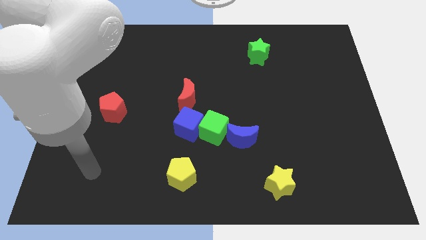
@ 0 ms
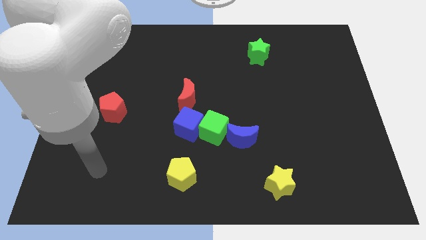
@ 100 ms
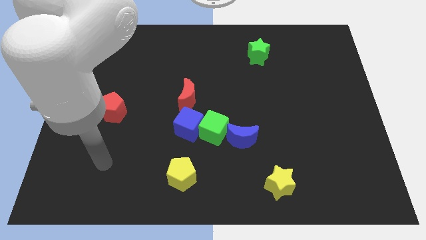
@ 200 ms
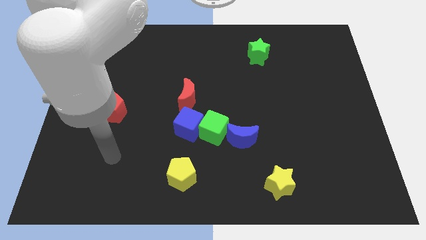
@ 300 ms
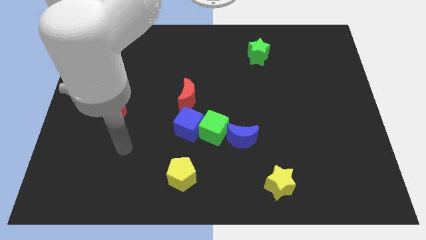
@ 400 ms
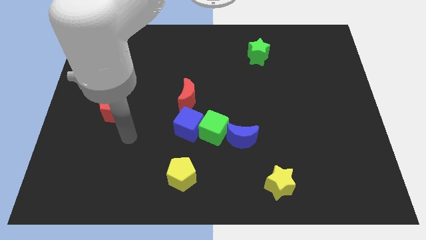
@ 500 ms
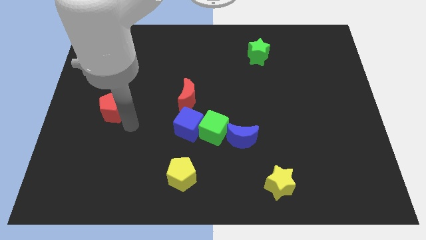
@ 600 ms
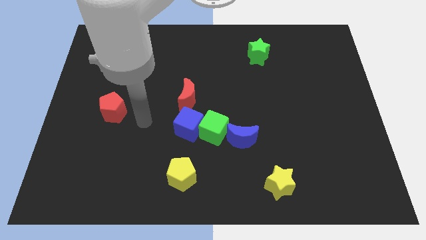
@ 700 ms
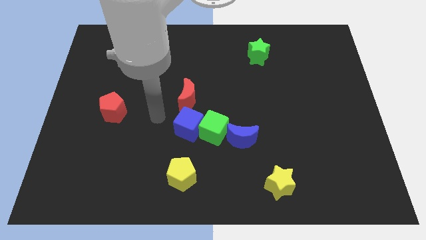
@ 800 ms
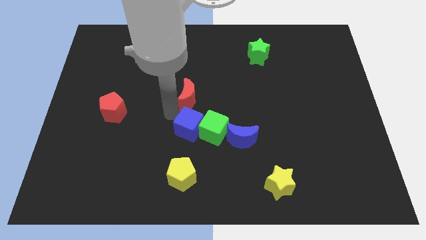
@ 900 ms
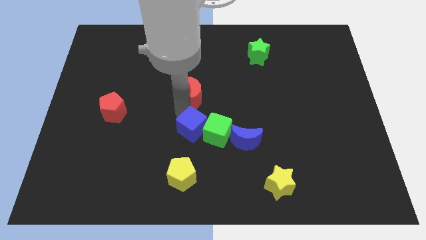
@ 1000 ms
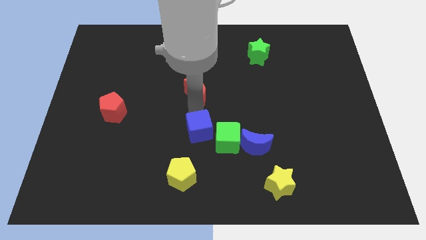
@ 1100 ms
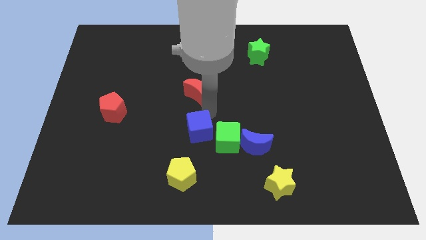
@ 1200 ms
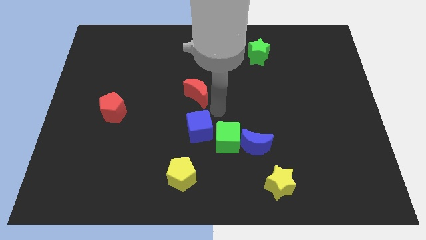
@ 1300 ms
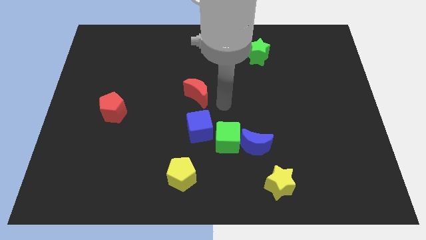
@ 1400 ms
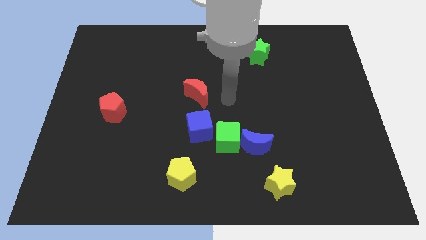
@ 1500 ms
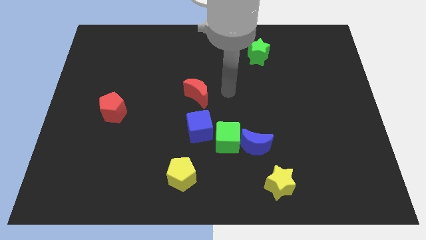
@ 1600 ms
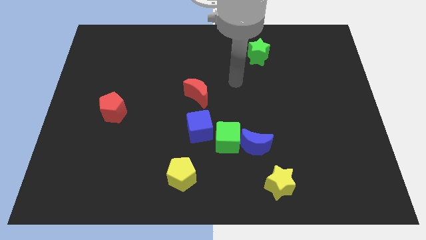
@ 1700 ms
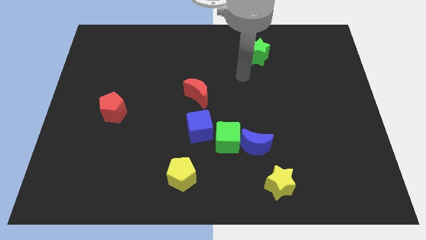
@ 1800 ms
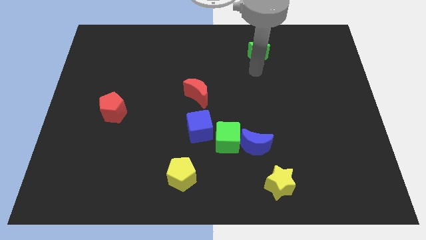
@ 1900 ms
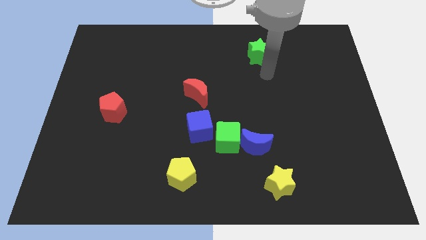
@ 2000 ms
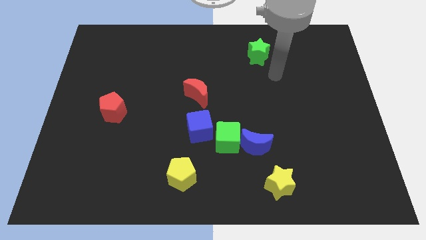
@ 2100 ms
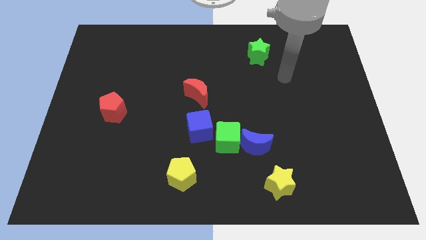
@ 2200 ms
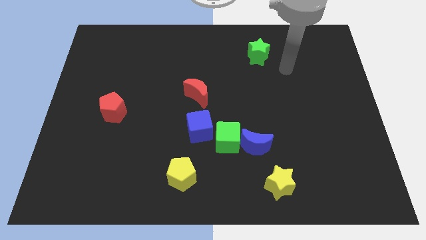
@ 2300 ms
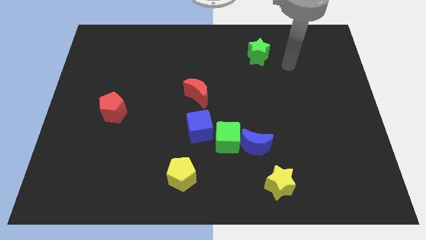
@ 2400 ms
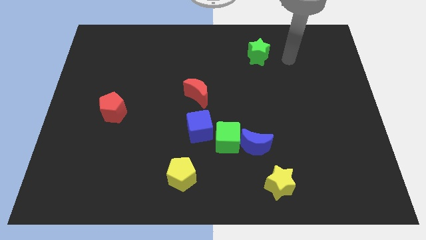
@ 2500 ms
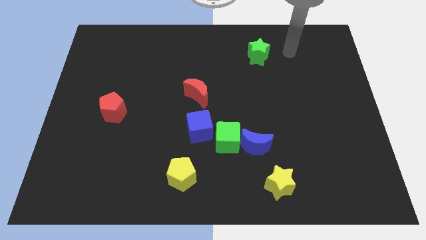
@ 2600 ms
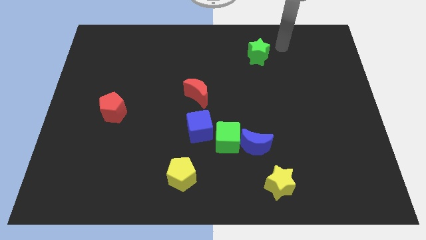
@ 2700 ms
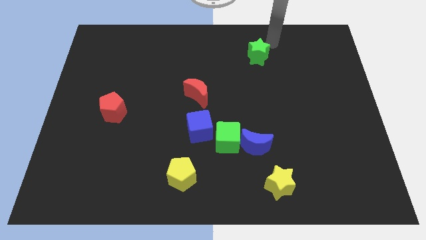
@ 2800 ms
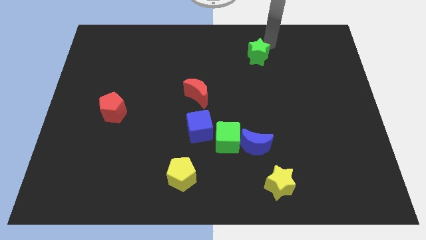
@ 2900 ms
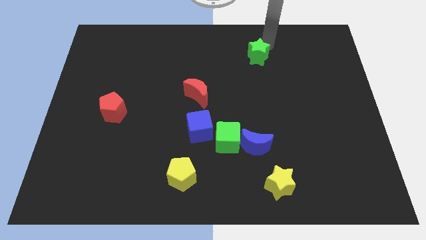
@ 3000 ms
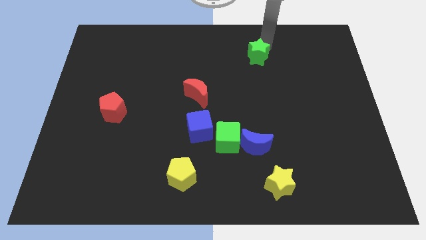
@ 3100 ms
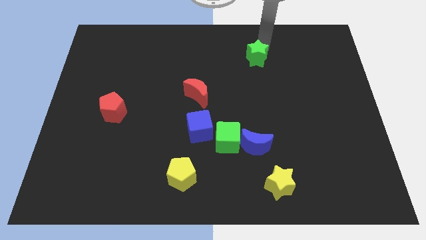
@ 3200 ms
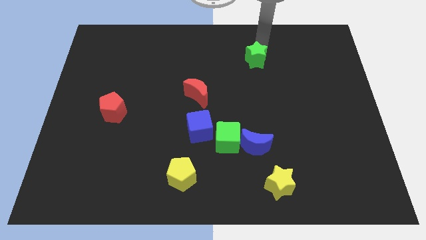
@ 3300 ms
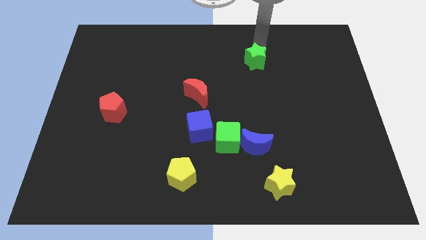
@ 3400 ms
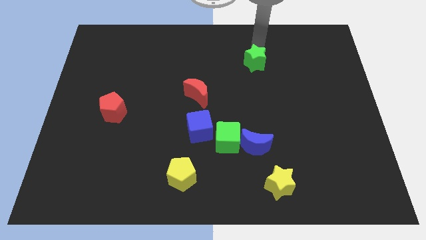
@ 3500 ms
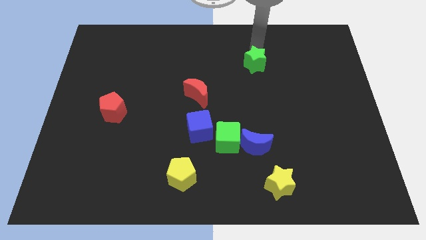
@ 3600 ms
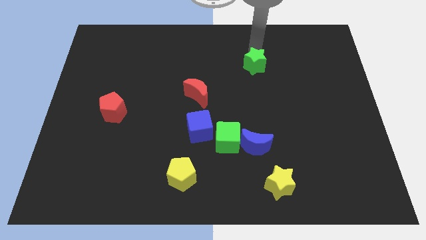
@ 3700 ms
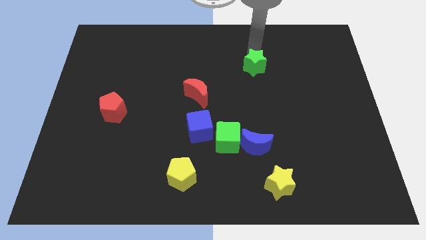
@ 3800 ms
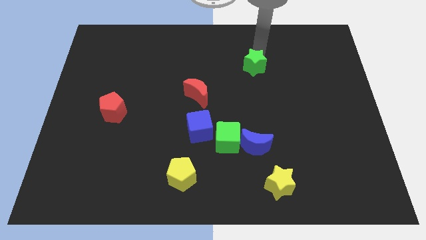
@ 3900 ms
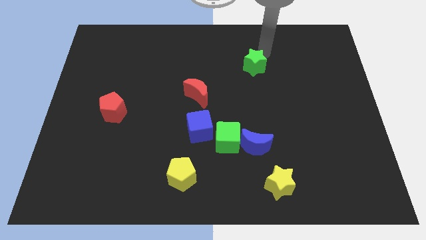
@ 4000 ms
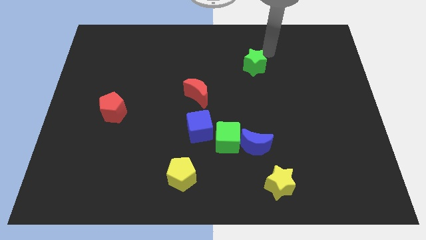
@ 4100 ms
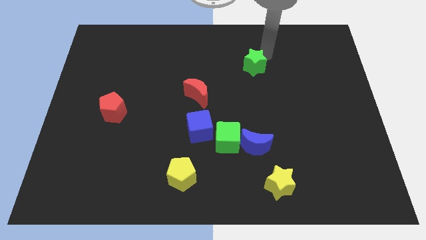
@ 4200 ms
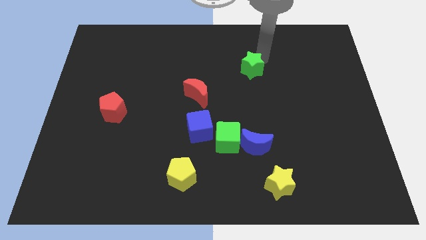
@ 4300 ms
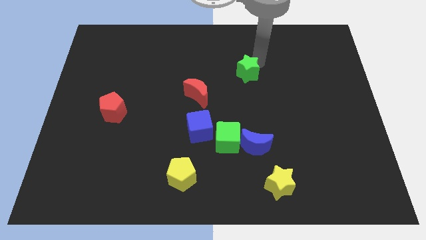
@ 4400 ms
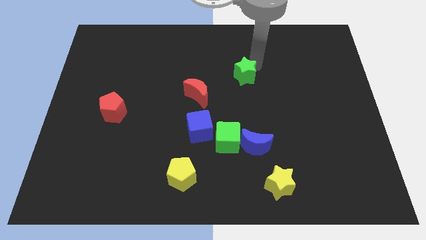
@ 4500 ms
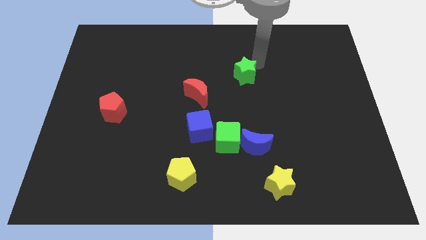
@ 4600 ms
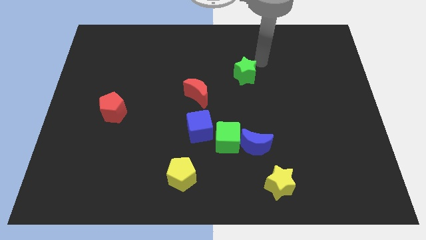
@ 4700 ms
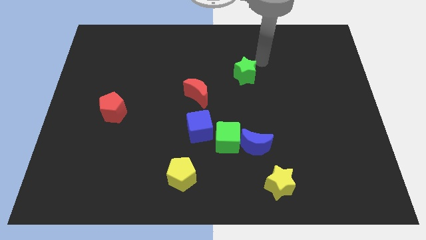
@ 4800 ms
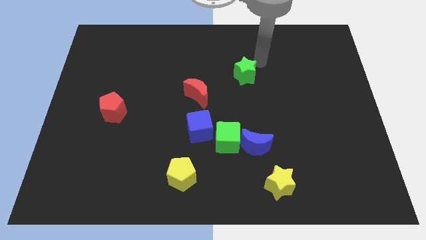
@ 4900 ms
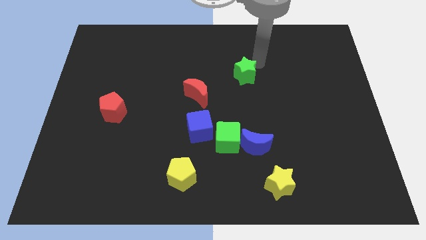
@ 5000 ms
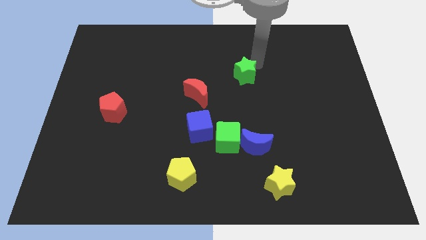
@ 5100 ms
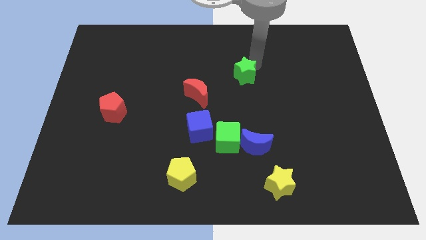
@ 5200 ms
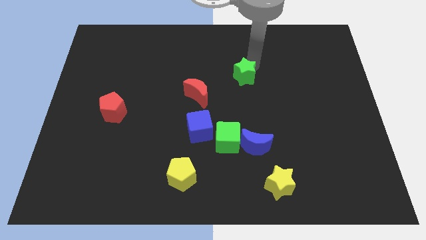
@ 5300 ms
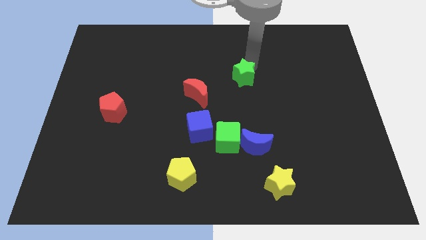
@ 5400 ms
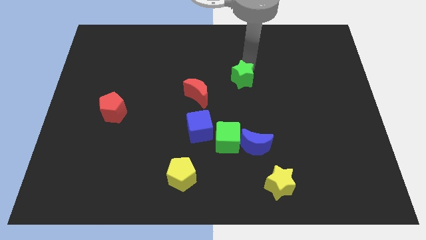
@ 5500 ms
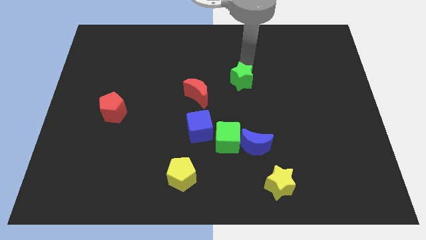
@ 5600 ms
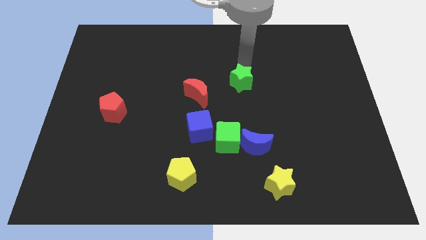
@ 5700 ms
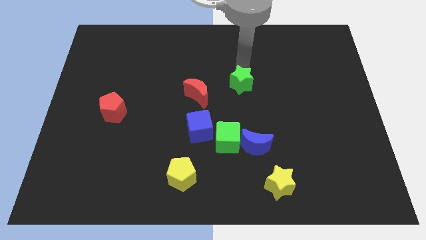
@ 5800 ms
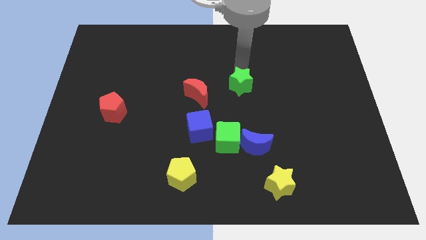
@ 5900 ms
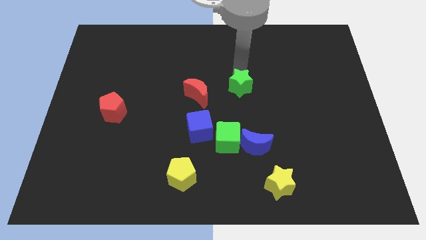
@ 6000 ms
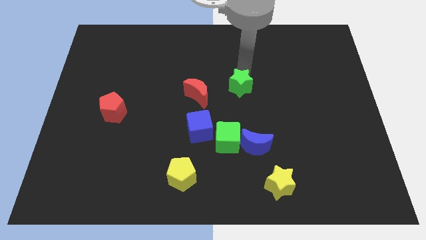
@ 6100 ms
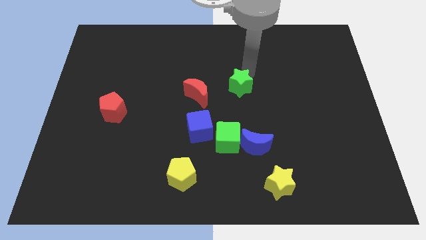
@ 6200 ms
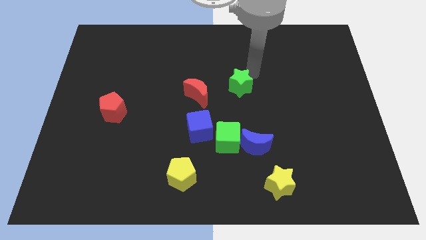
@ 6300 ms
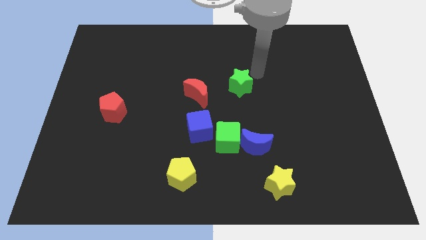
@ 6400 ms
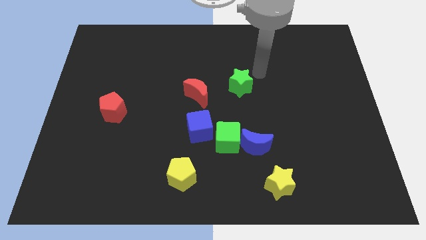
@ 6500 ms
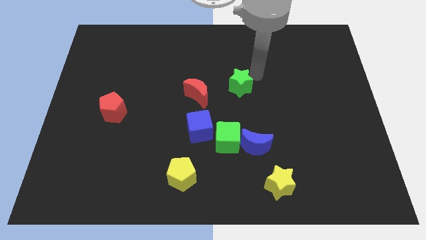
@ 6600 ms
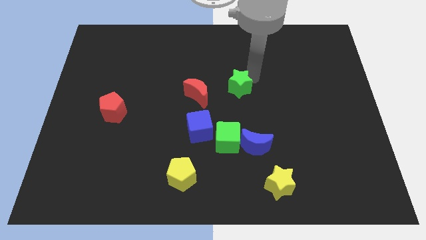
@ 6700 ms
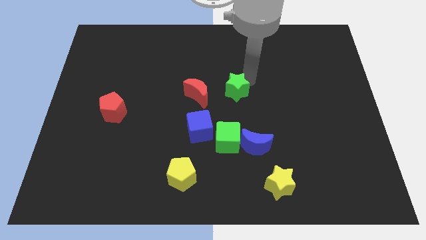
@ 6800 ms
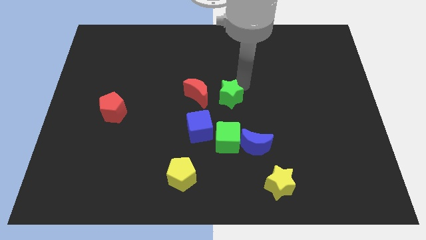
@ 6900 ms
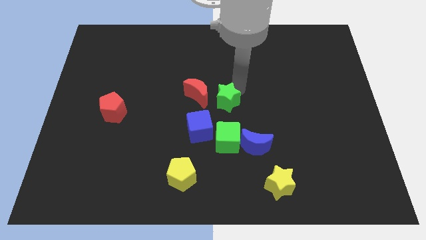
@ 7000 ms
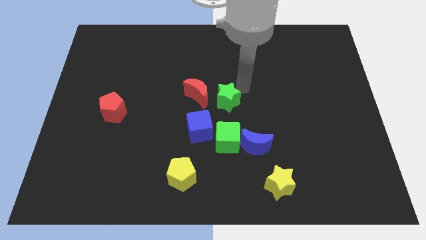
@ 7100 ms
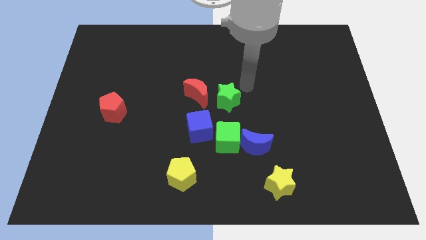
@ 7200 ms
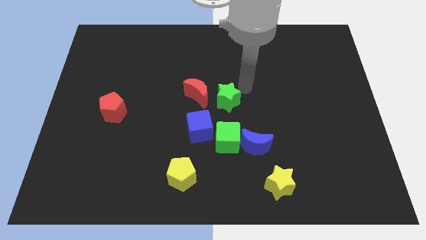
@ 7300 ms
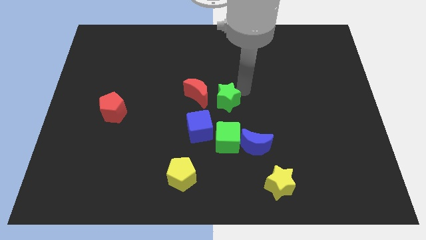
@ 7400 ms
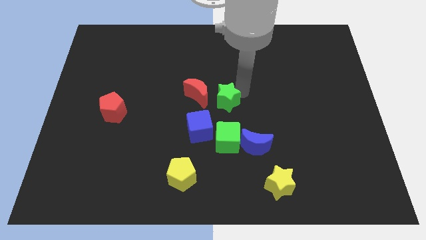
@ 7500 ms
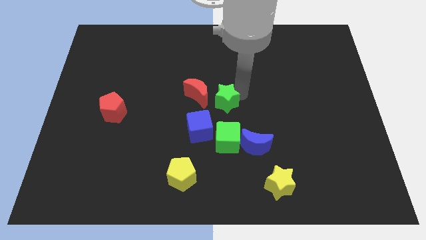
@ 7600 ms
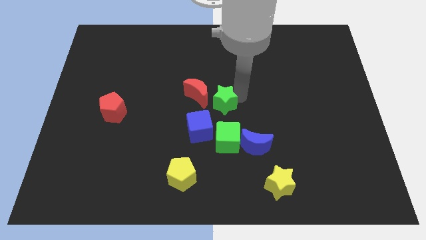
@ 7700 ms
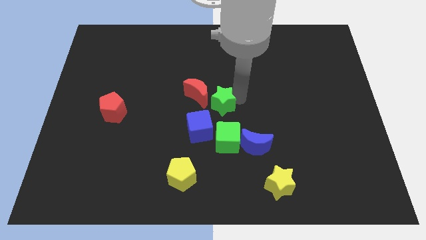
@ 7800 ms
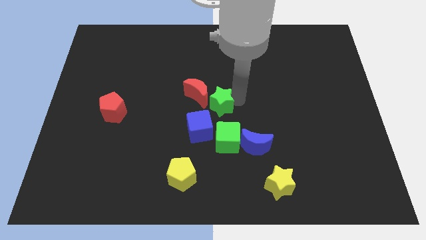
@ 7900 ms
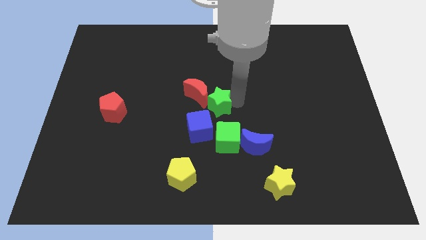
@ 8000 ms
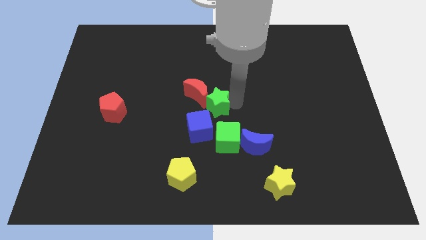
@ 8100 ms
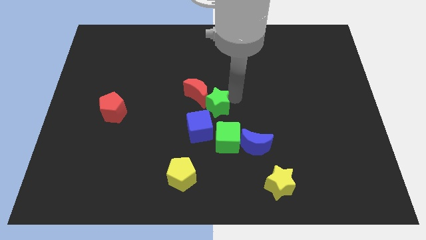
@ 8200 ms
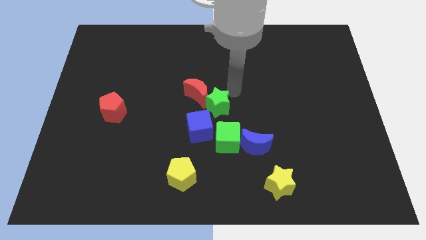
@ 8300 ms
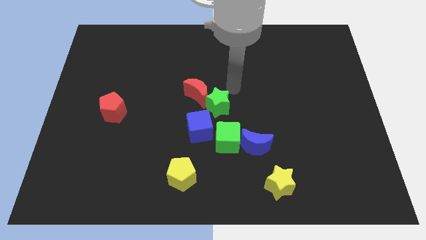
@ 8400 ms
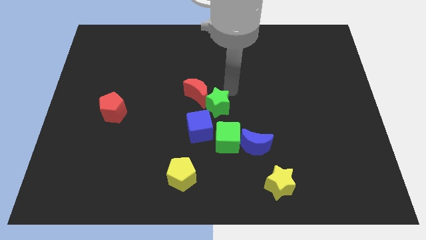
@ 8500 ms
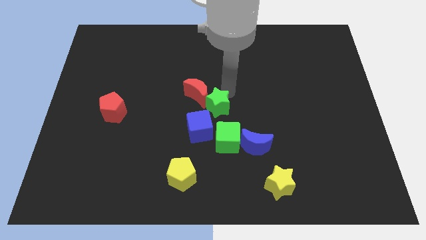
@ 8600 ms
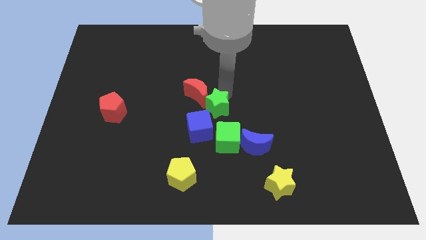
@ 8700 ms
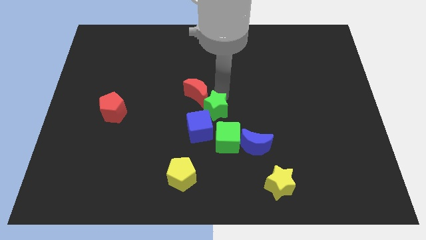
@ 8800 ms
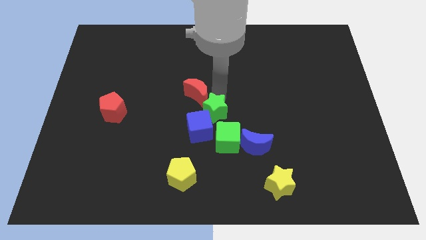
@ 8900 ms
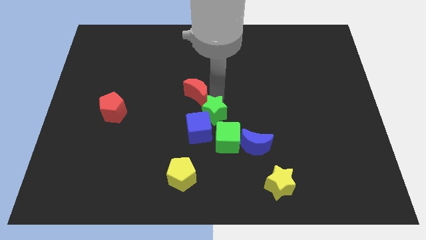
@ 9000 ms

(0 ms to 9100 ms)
push the green star to the blue cube
